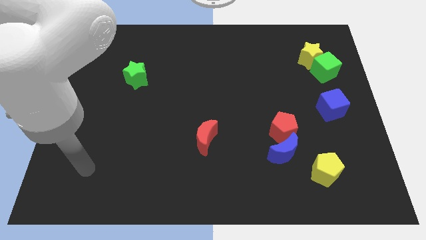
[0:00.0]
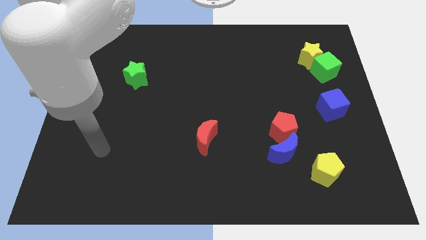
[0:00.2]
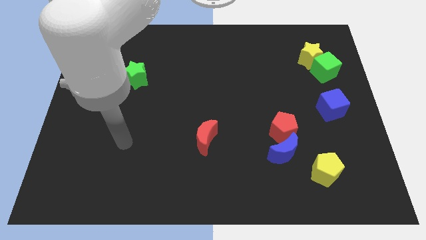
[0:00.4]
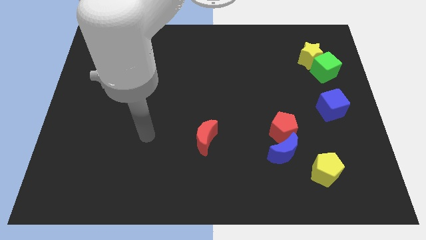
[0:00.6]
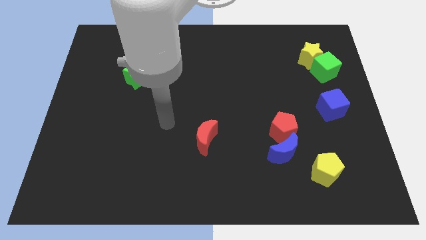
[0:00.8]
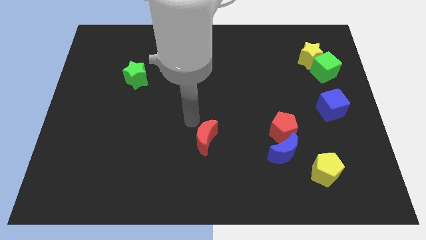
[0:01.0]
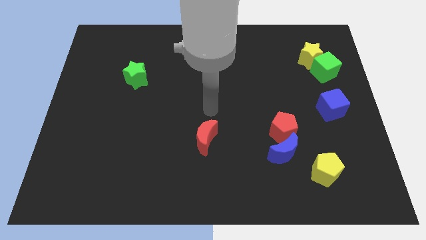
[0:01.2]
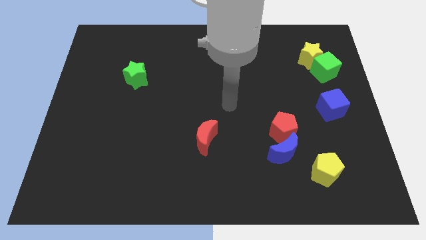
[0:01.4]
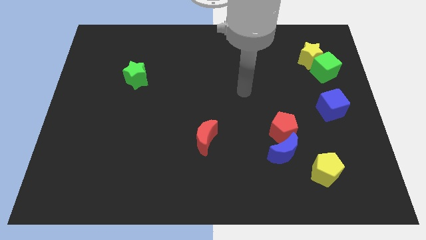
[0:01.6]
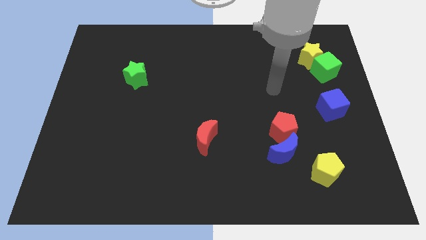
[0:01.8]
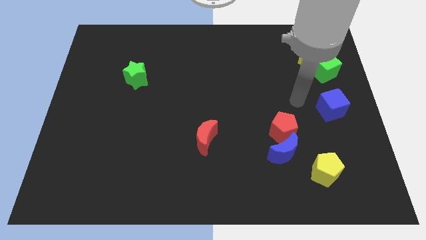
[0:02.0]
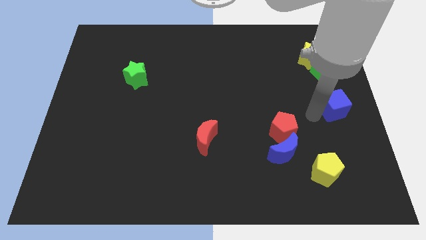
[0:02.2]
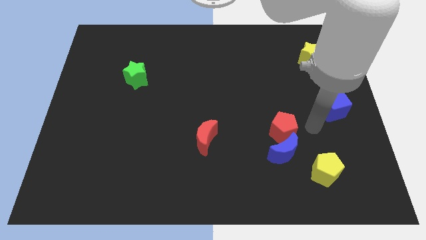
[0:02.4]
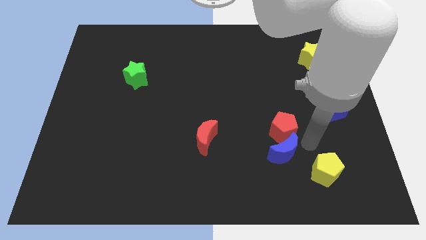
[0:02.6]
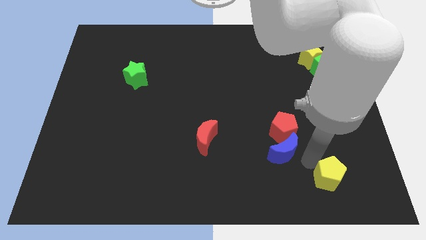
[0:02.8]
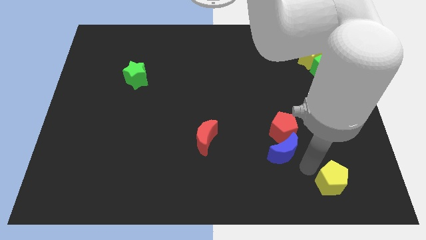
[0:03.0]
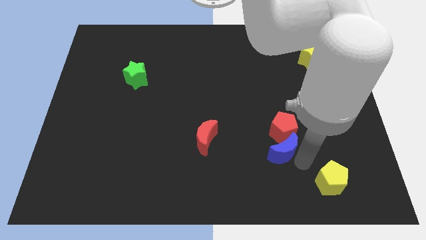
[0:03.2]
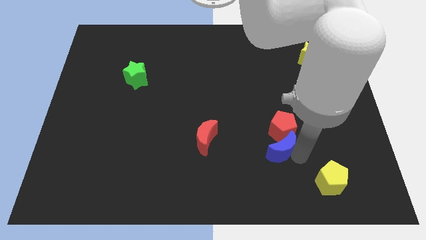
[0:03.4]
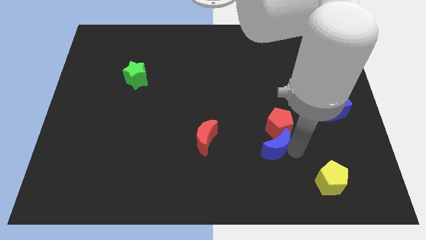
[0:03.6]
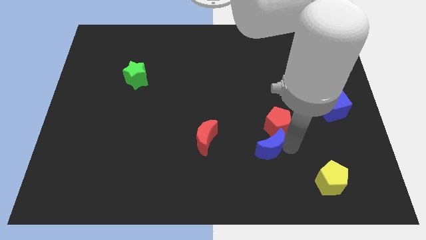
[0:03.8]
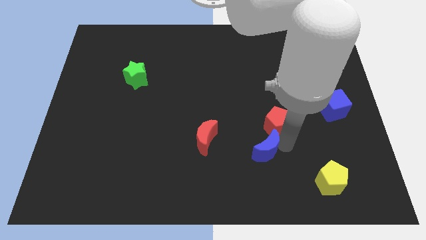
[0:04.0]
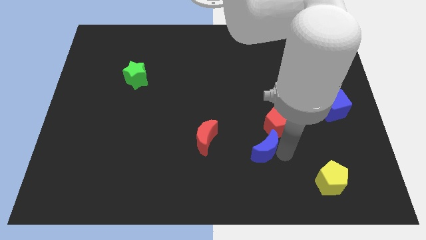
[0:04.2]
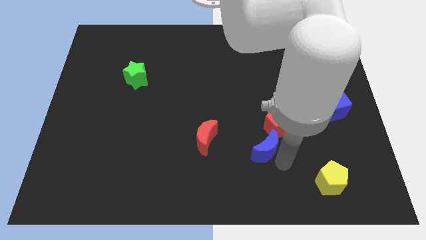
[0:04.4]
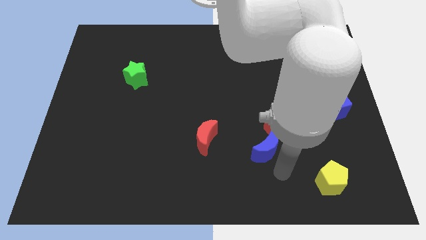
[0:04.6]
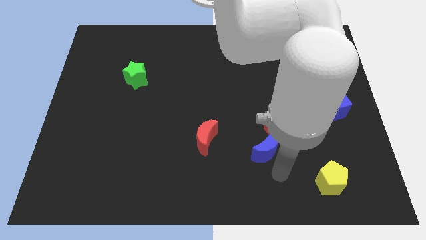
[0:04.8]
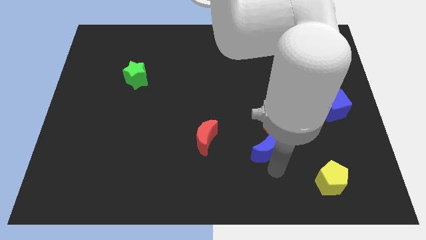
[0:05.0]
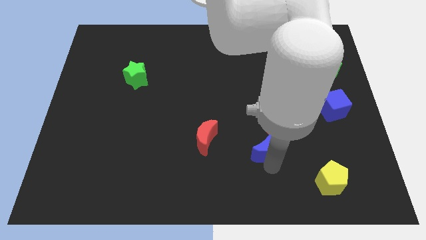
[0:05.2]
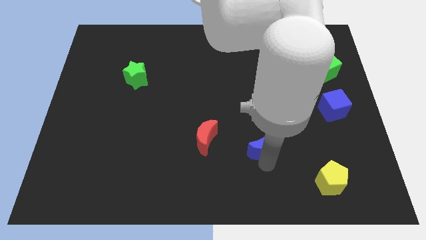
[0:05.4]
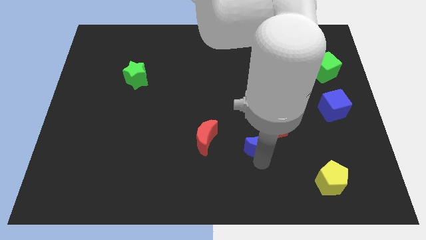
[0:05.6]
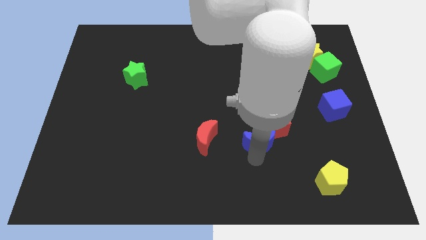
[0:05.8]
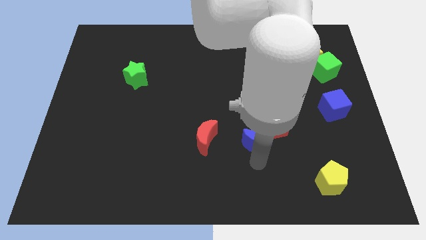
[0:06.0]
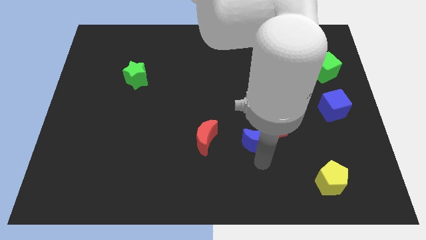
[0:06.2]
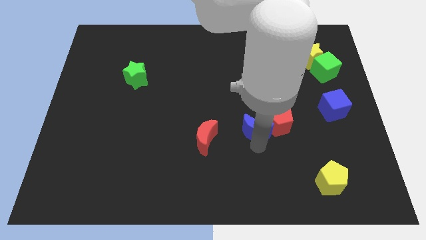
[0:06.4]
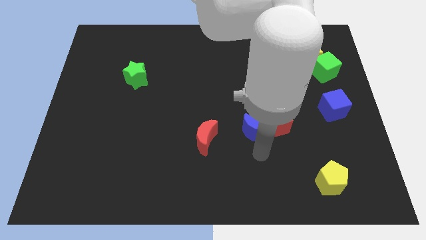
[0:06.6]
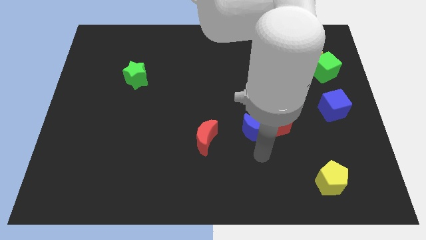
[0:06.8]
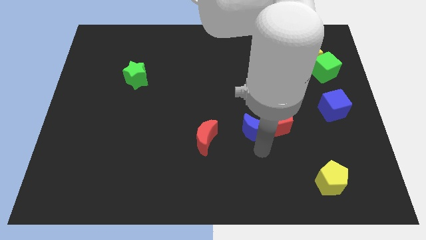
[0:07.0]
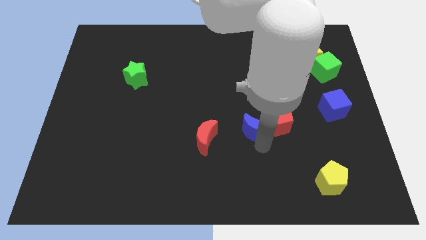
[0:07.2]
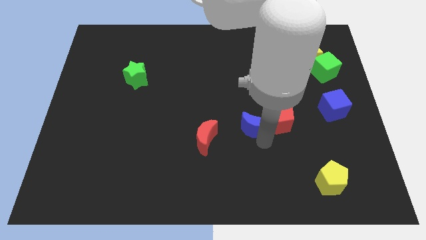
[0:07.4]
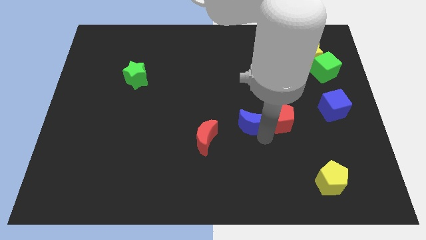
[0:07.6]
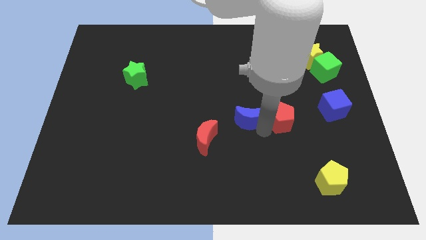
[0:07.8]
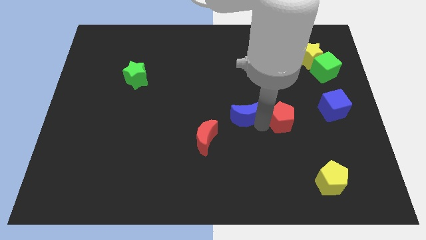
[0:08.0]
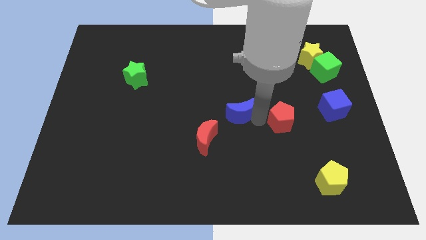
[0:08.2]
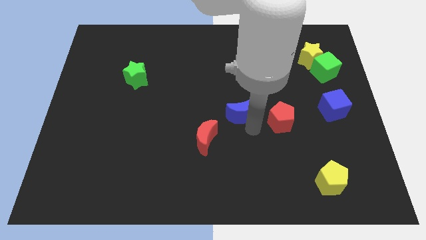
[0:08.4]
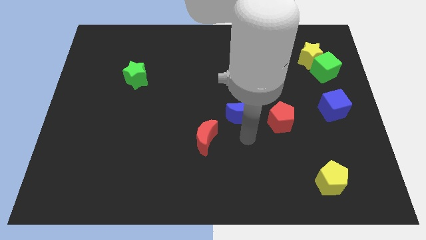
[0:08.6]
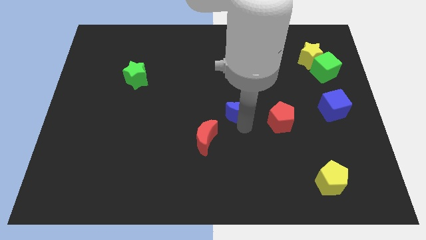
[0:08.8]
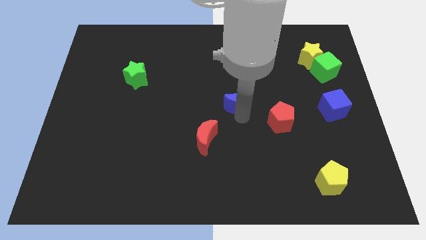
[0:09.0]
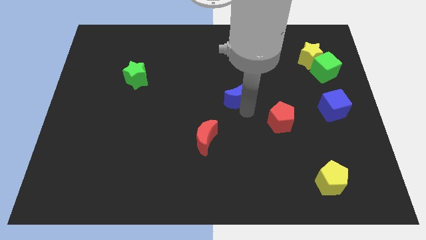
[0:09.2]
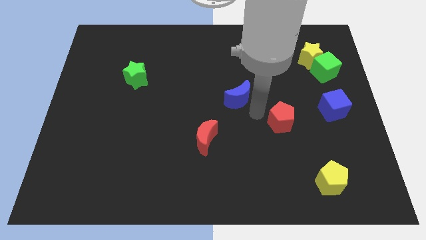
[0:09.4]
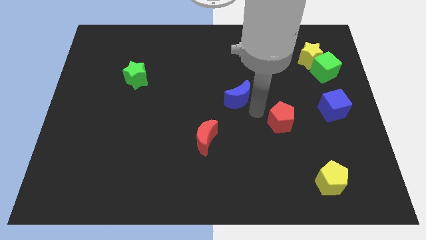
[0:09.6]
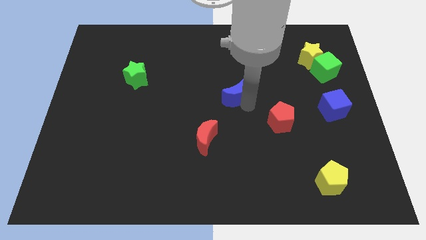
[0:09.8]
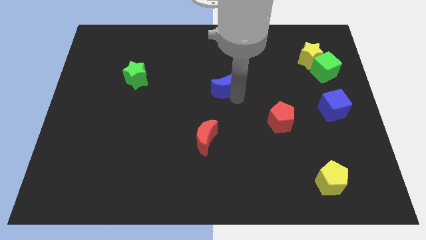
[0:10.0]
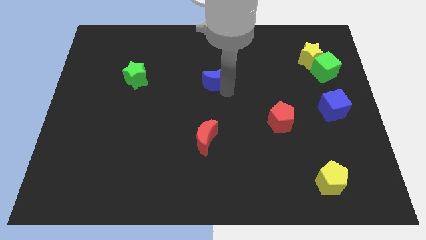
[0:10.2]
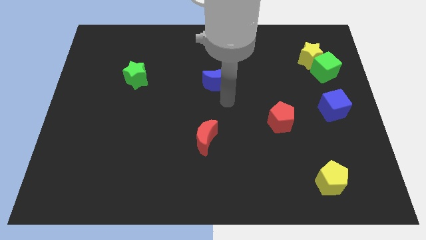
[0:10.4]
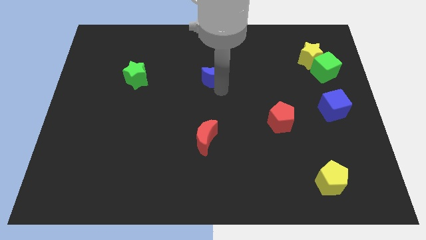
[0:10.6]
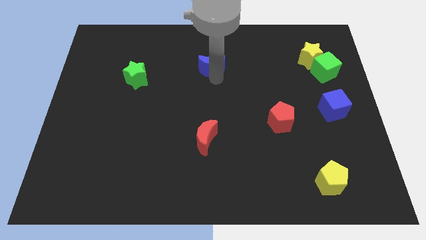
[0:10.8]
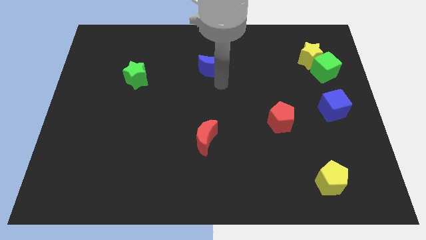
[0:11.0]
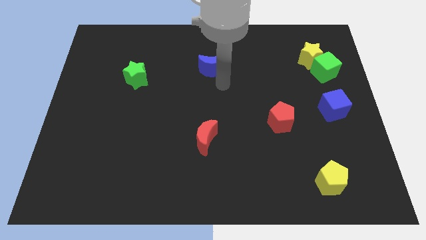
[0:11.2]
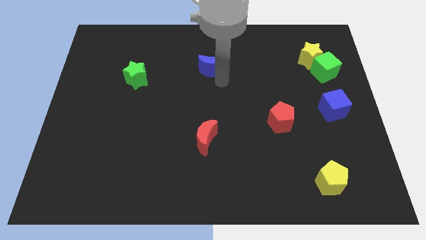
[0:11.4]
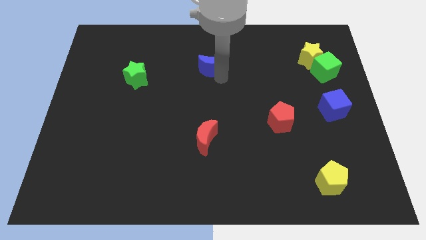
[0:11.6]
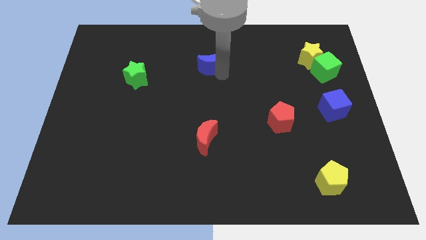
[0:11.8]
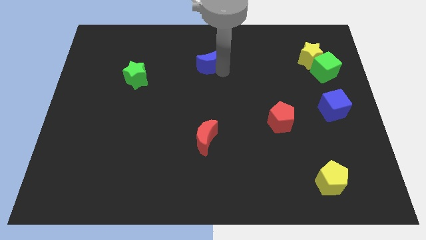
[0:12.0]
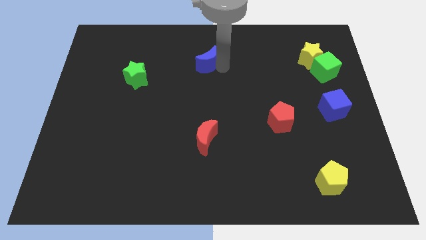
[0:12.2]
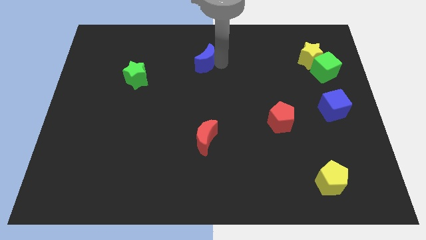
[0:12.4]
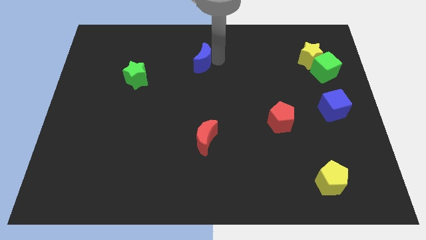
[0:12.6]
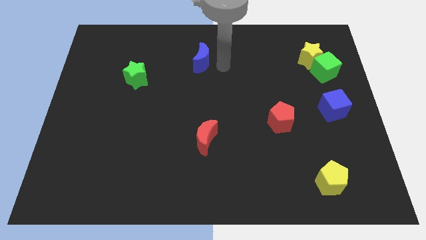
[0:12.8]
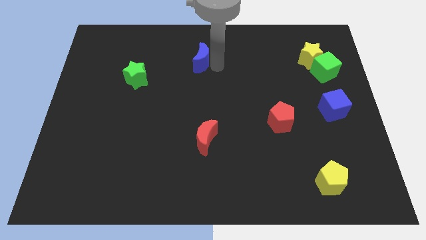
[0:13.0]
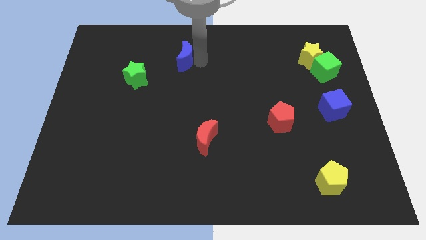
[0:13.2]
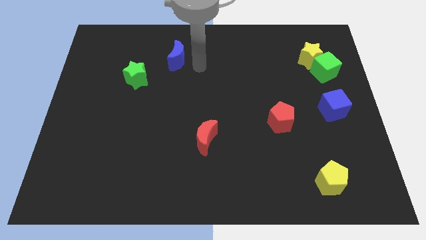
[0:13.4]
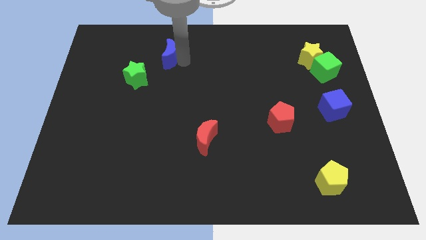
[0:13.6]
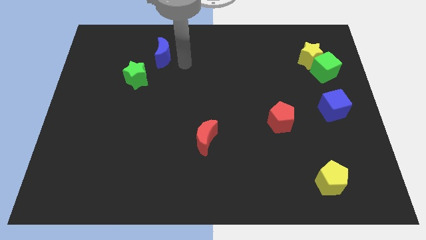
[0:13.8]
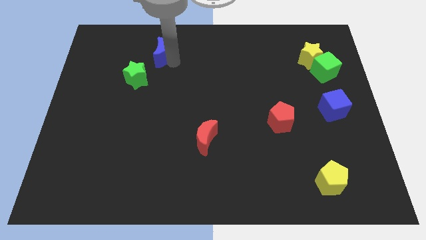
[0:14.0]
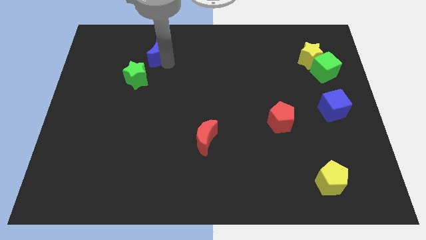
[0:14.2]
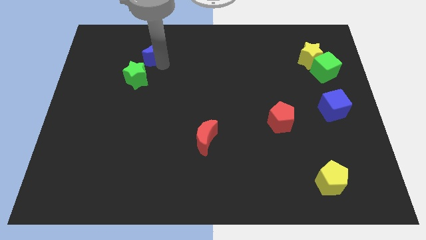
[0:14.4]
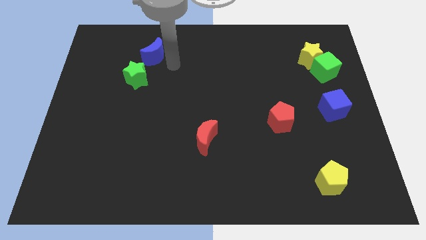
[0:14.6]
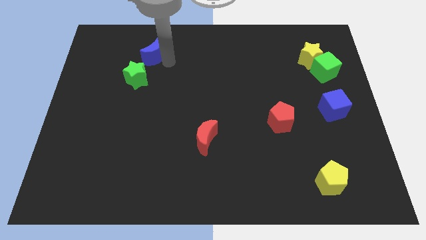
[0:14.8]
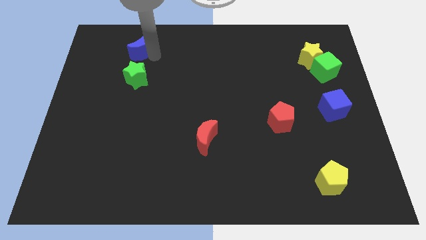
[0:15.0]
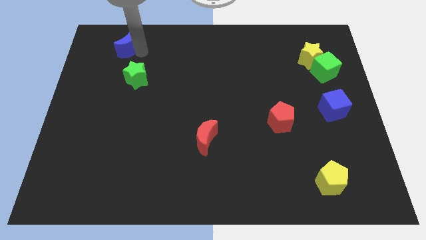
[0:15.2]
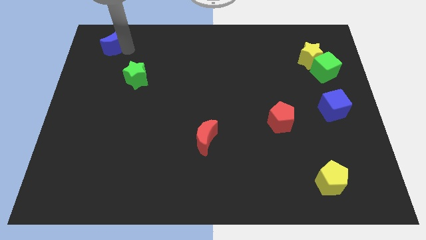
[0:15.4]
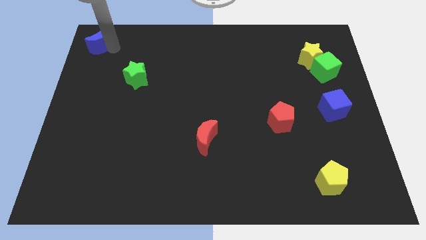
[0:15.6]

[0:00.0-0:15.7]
put the blue moon to the top left corner
